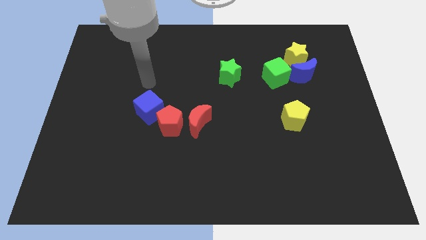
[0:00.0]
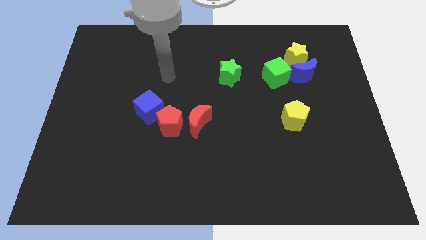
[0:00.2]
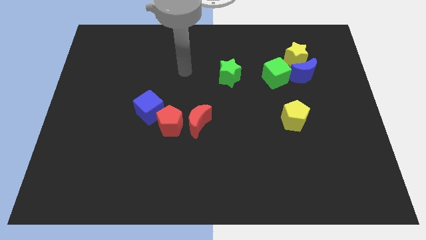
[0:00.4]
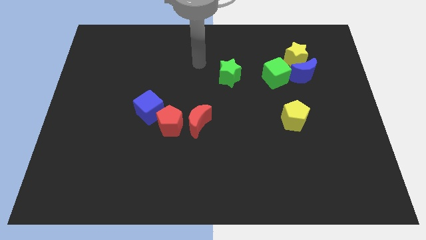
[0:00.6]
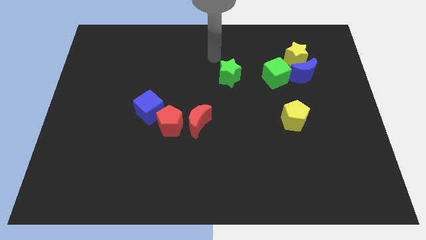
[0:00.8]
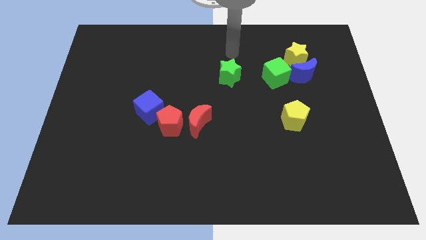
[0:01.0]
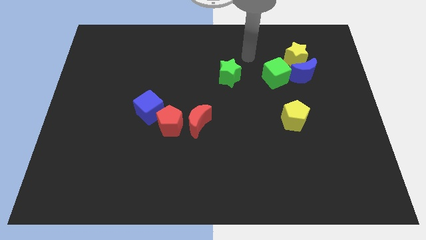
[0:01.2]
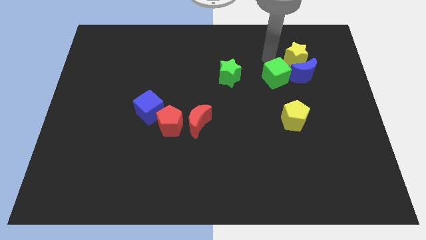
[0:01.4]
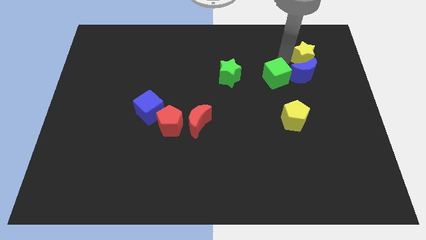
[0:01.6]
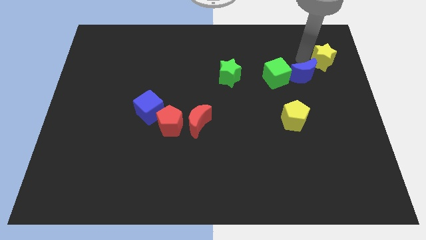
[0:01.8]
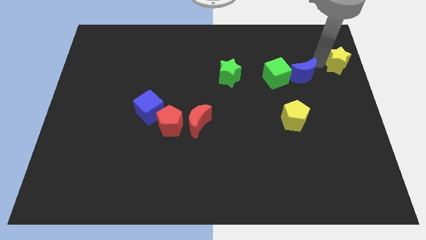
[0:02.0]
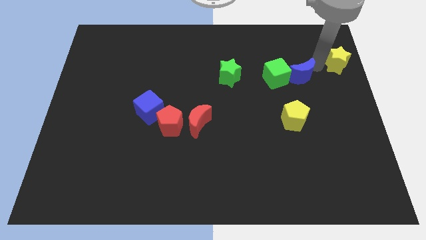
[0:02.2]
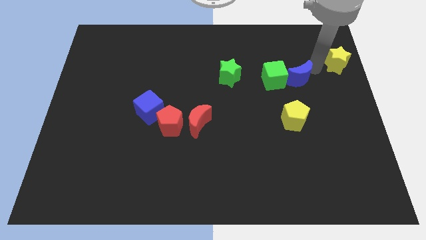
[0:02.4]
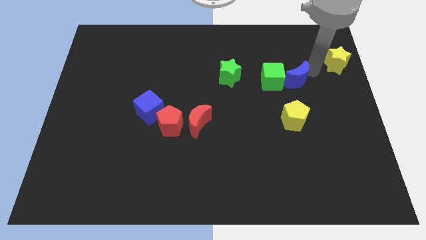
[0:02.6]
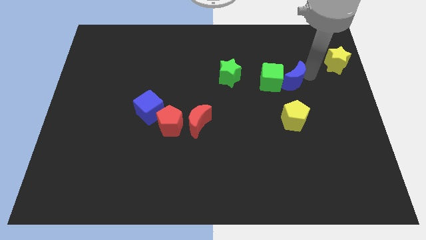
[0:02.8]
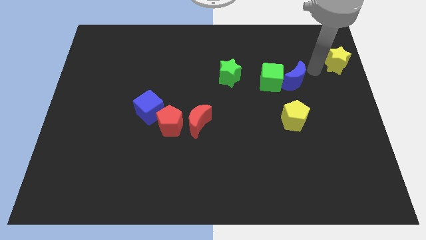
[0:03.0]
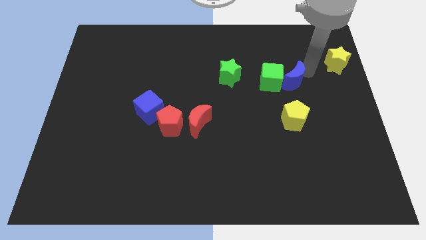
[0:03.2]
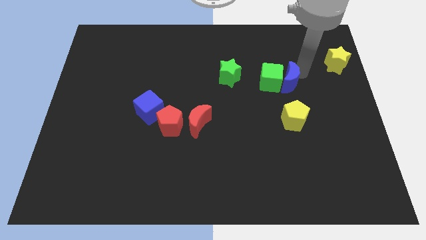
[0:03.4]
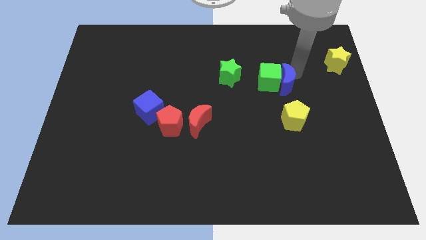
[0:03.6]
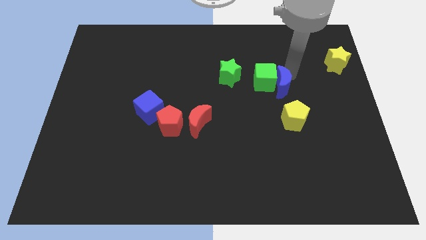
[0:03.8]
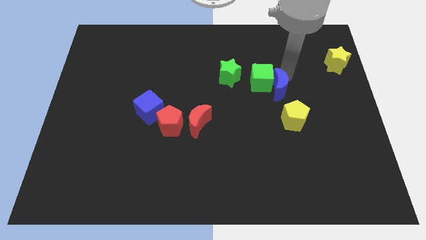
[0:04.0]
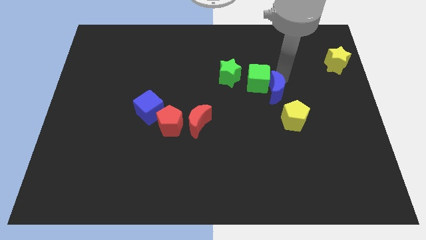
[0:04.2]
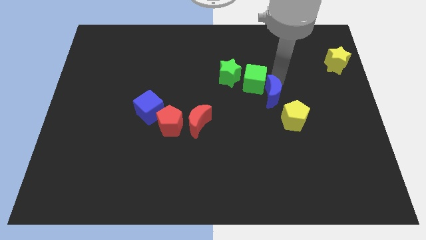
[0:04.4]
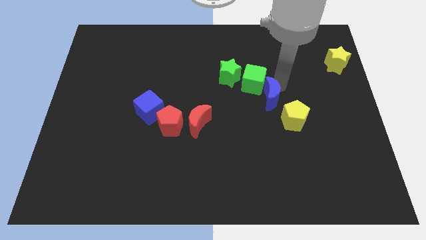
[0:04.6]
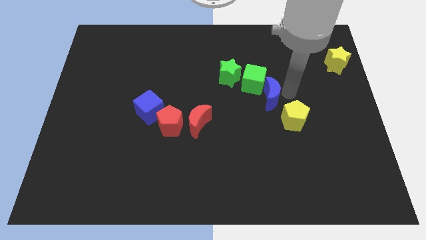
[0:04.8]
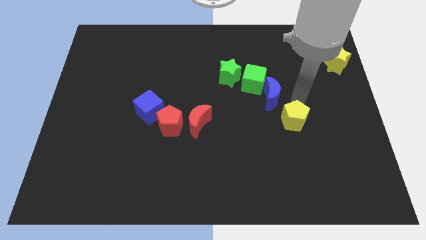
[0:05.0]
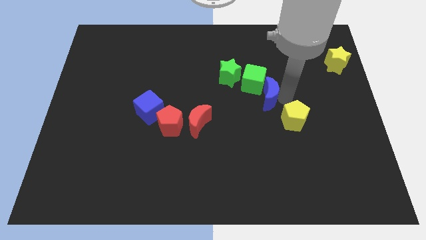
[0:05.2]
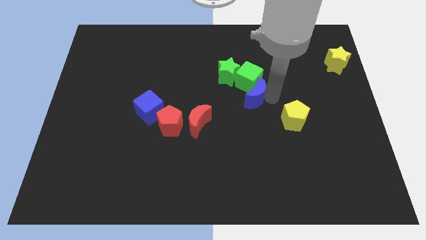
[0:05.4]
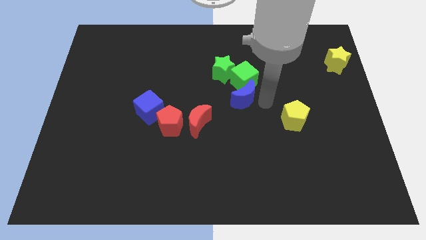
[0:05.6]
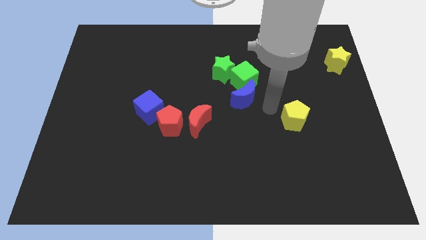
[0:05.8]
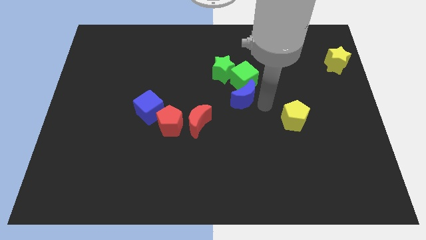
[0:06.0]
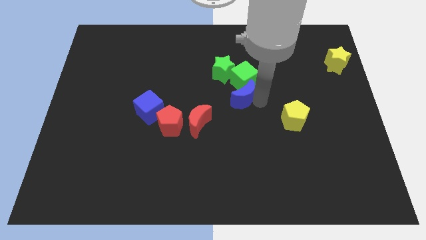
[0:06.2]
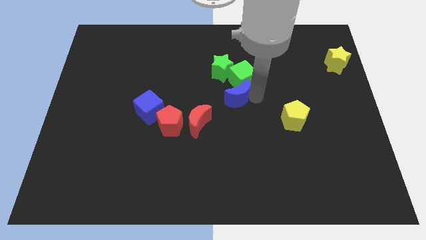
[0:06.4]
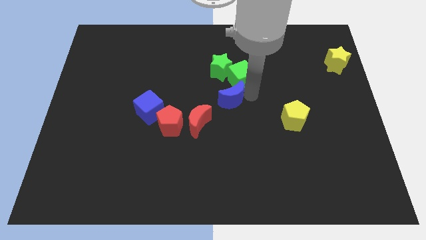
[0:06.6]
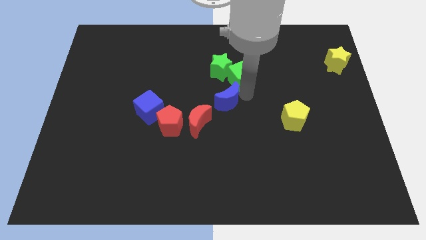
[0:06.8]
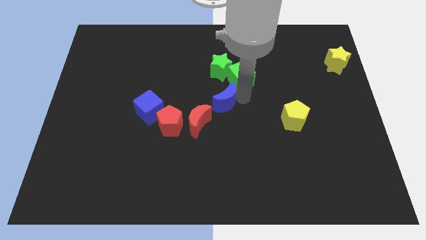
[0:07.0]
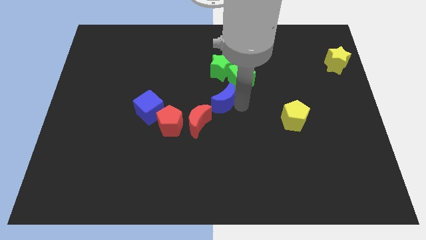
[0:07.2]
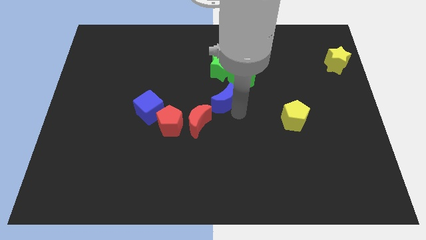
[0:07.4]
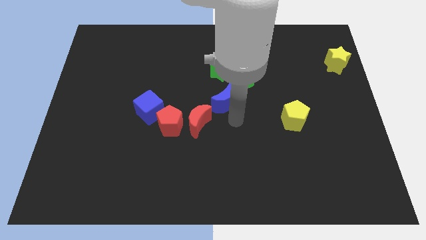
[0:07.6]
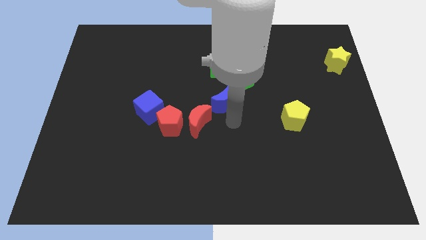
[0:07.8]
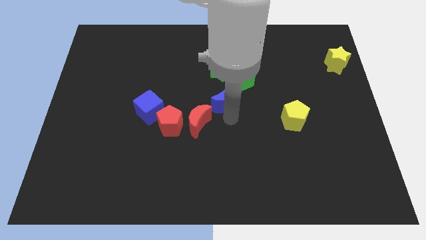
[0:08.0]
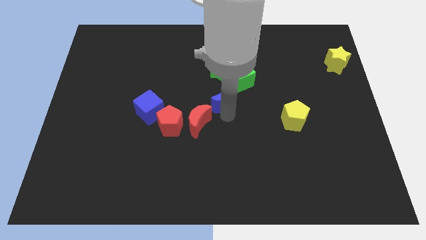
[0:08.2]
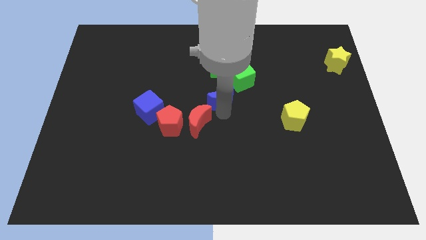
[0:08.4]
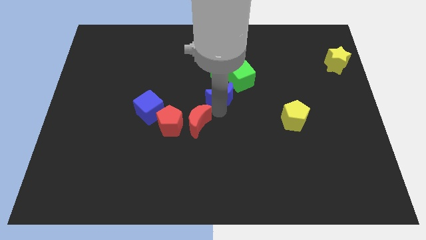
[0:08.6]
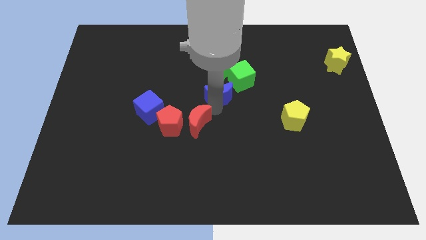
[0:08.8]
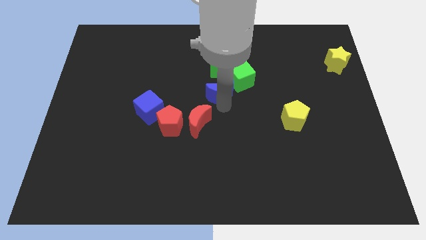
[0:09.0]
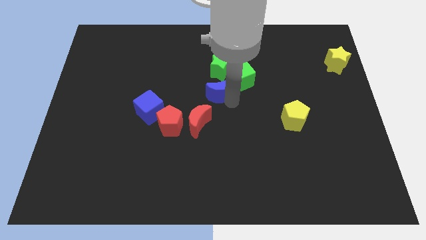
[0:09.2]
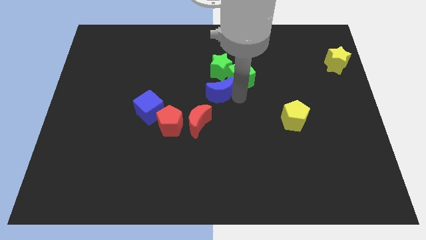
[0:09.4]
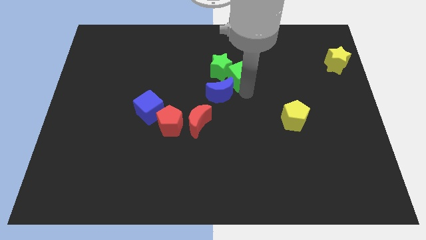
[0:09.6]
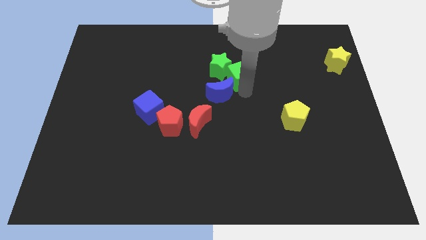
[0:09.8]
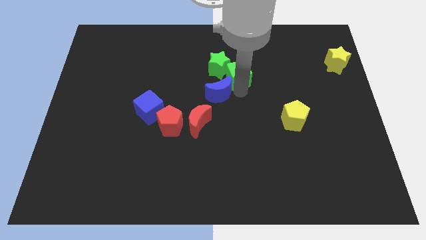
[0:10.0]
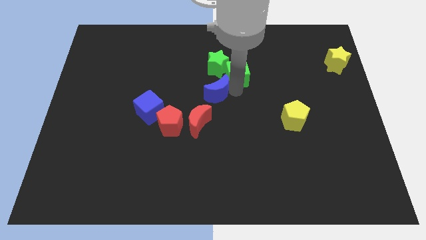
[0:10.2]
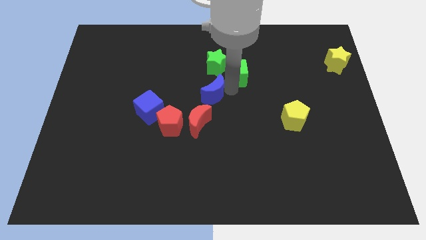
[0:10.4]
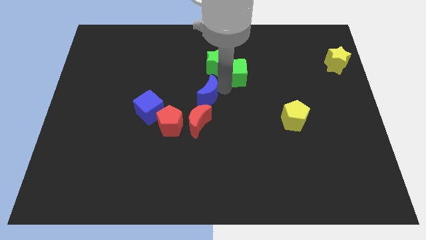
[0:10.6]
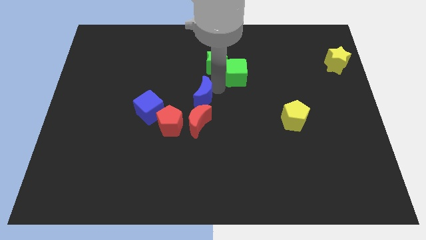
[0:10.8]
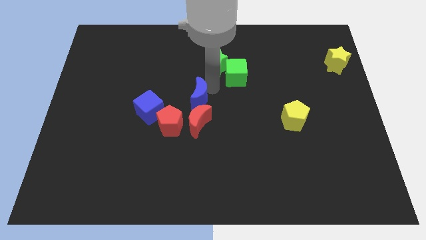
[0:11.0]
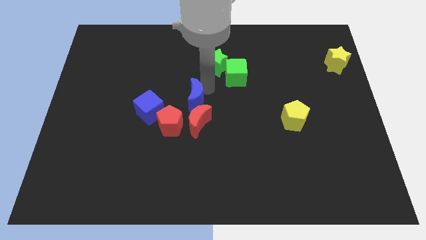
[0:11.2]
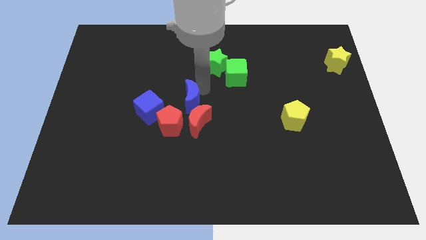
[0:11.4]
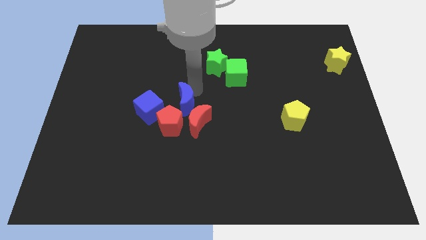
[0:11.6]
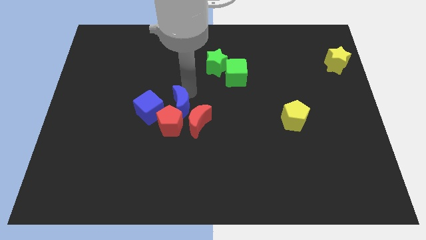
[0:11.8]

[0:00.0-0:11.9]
move the blue moon to the red pentagon

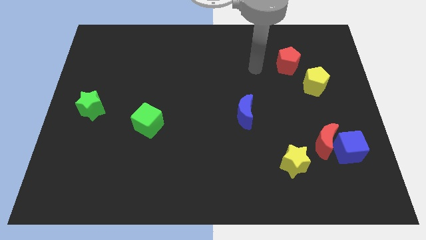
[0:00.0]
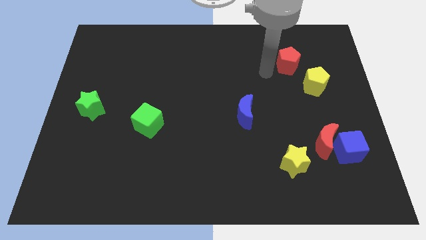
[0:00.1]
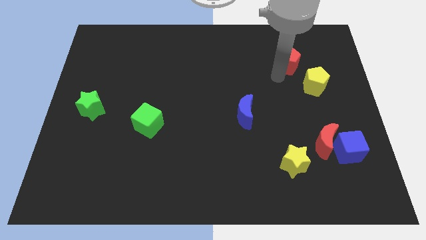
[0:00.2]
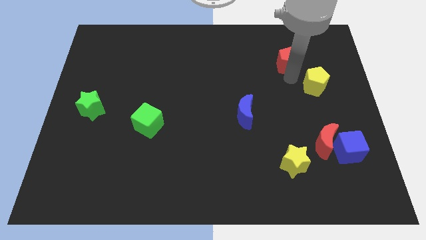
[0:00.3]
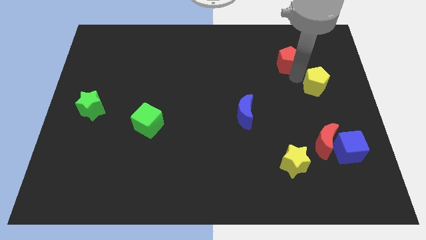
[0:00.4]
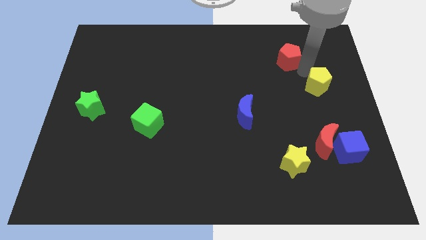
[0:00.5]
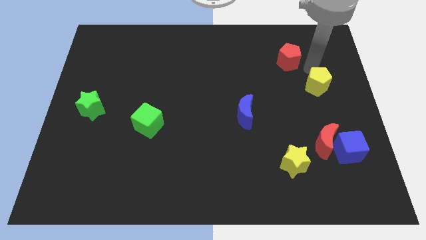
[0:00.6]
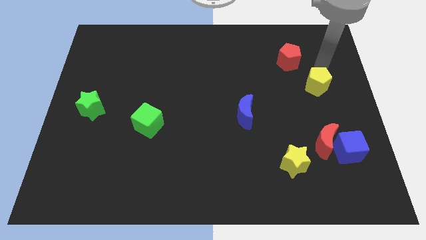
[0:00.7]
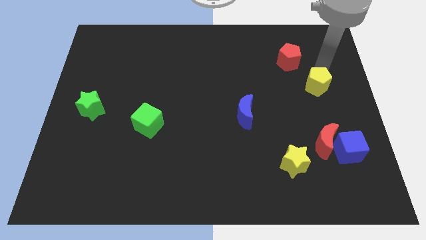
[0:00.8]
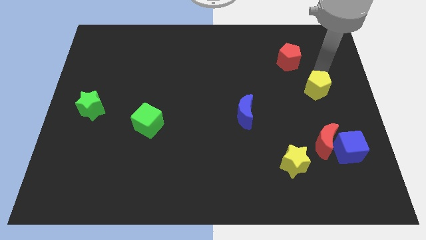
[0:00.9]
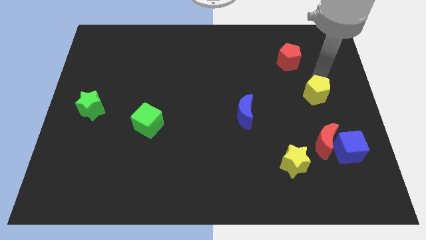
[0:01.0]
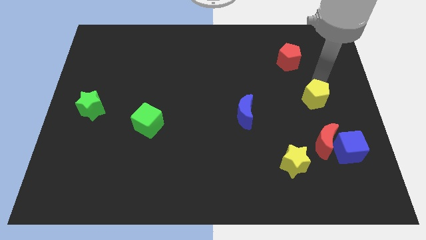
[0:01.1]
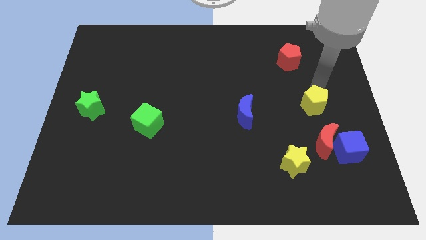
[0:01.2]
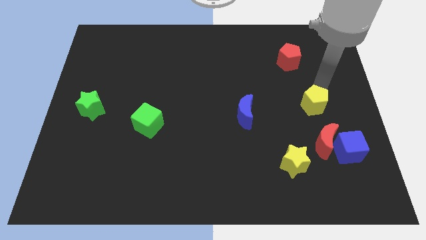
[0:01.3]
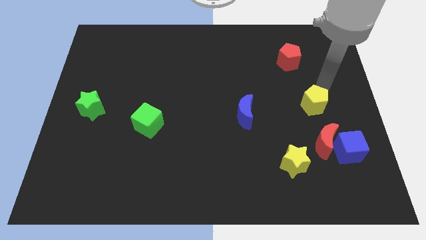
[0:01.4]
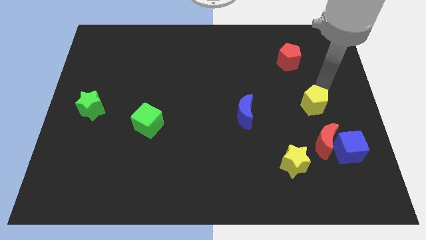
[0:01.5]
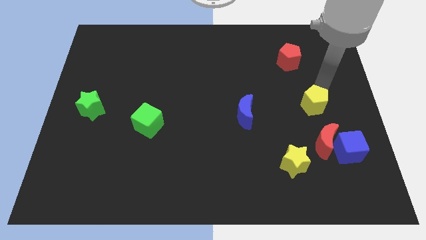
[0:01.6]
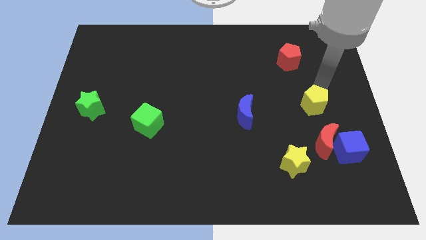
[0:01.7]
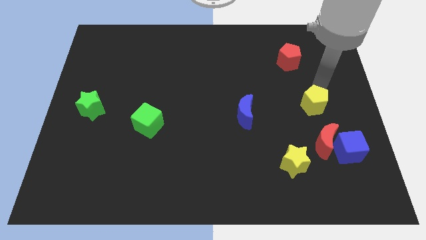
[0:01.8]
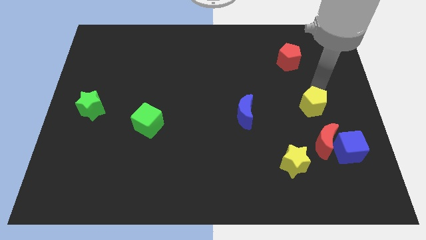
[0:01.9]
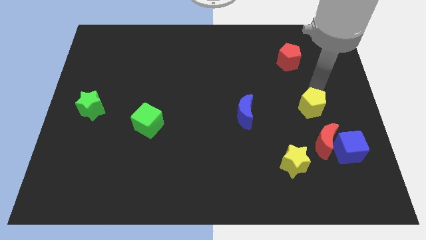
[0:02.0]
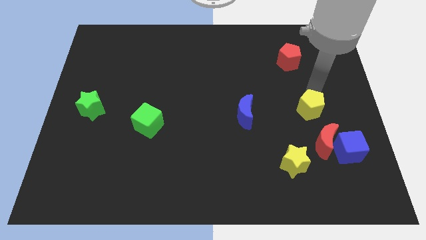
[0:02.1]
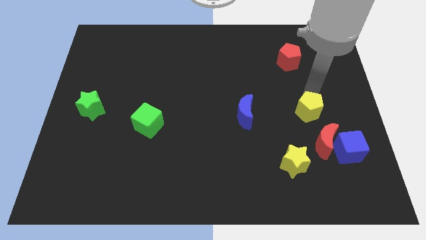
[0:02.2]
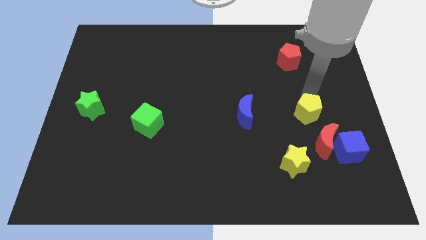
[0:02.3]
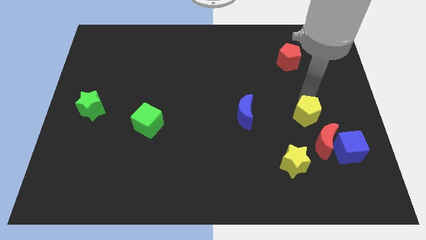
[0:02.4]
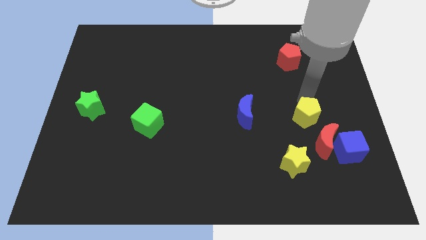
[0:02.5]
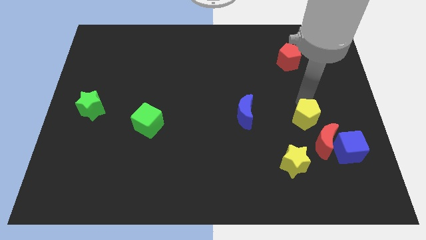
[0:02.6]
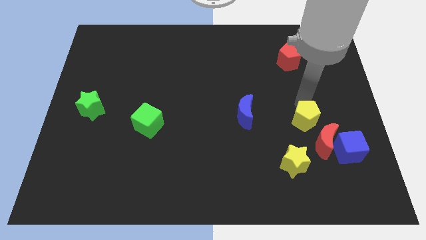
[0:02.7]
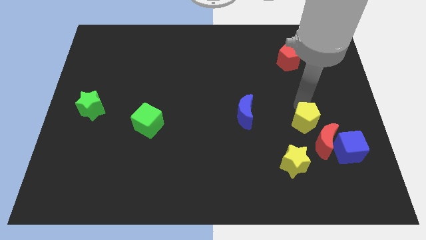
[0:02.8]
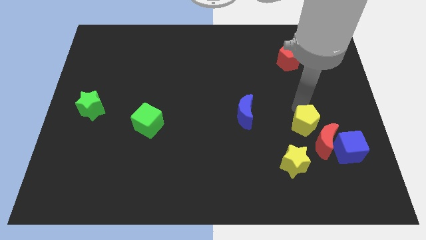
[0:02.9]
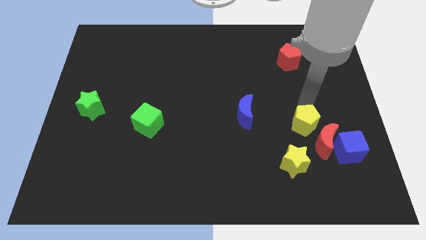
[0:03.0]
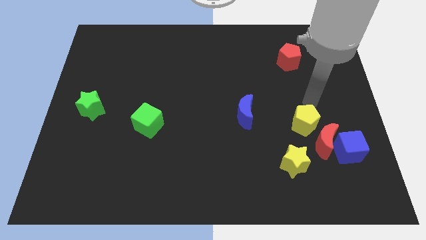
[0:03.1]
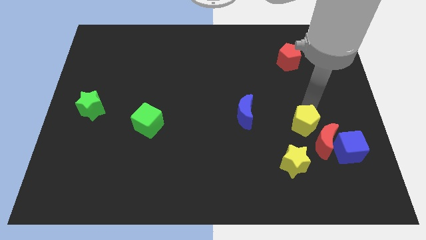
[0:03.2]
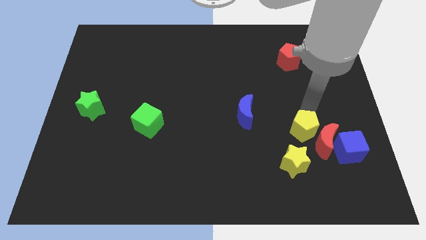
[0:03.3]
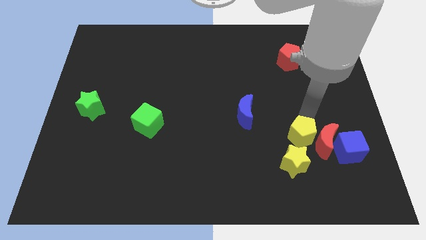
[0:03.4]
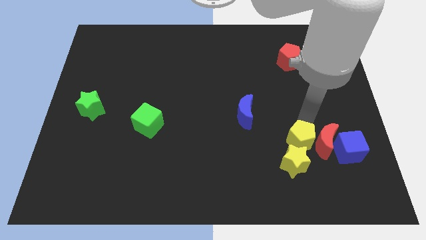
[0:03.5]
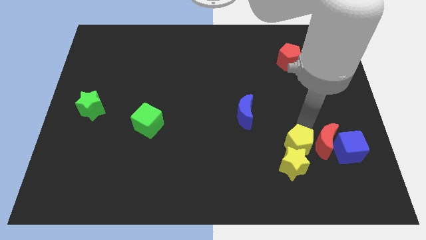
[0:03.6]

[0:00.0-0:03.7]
put the yellow pentagon close to the yellow star
